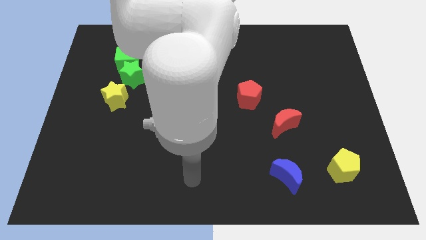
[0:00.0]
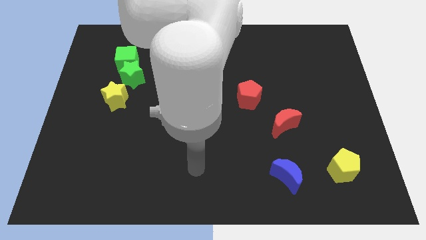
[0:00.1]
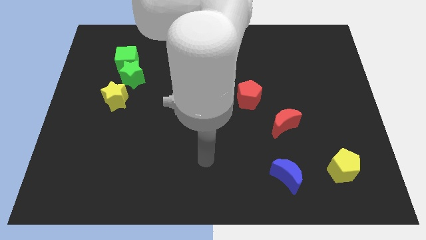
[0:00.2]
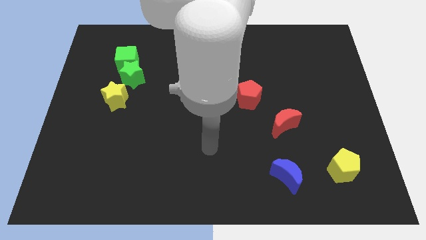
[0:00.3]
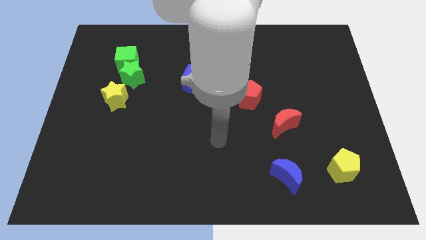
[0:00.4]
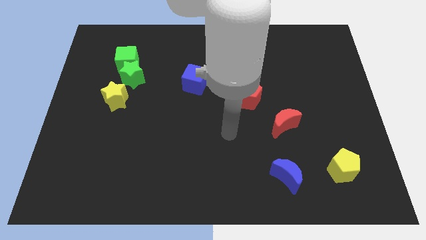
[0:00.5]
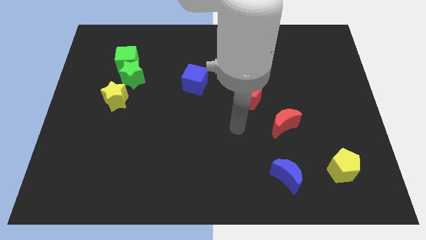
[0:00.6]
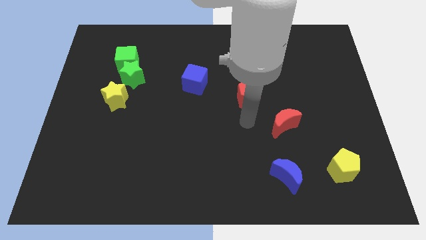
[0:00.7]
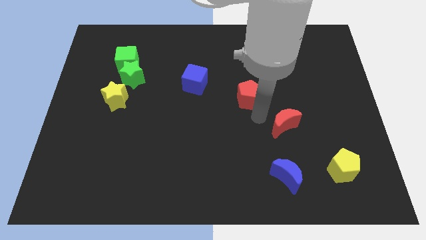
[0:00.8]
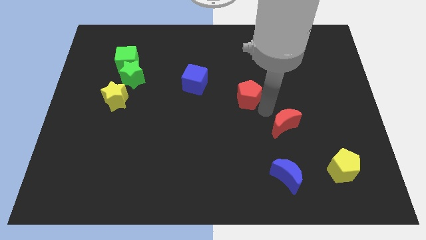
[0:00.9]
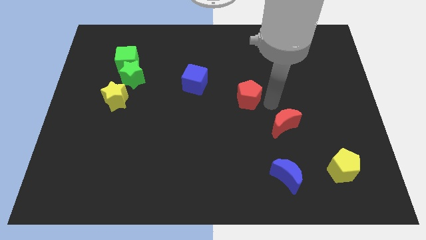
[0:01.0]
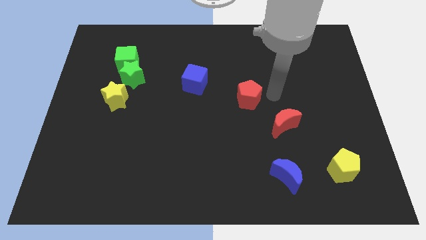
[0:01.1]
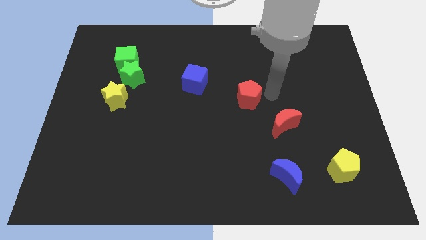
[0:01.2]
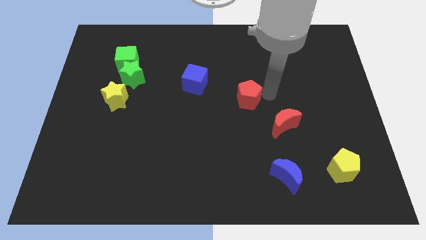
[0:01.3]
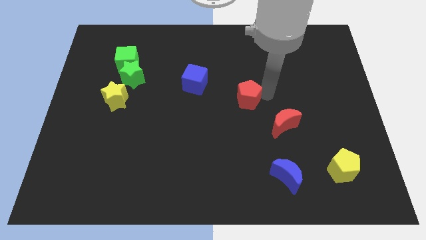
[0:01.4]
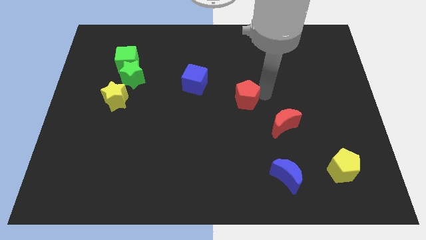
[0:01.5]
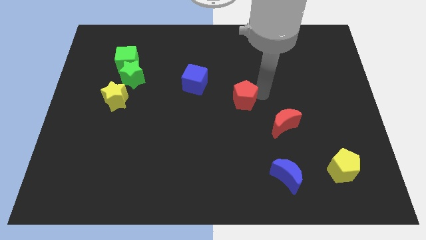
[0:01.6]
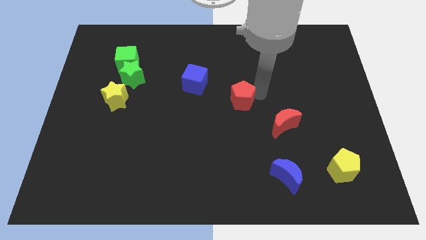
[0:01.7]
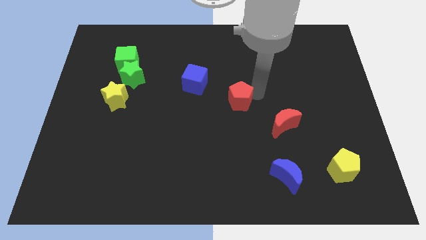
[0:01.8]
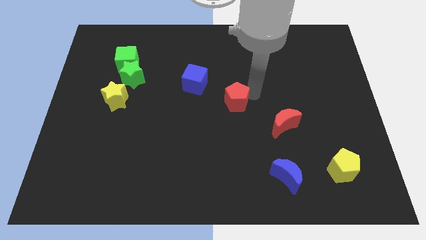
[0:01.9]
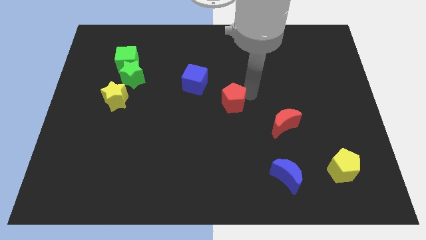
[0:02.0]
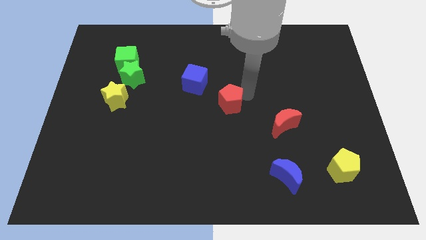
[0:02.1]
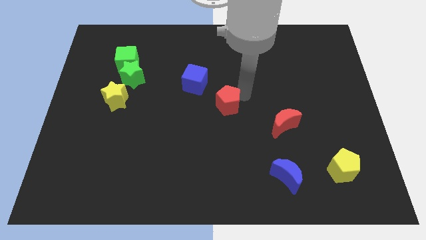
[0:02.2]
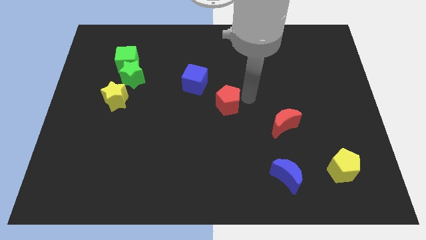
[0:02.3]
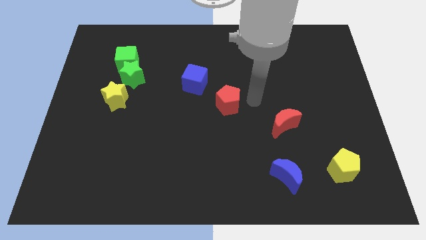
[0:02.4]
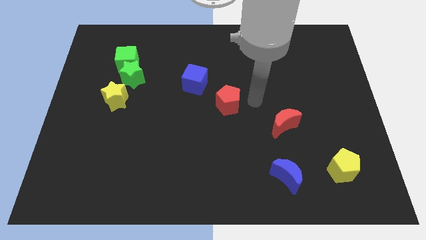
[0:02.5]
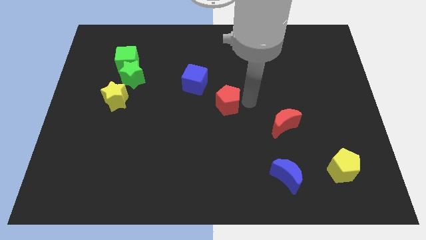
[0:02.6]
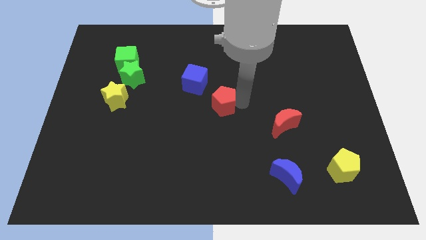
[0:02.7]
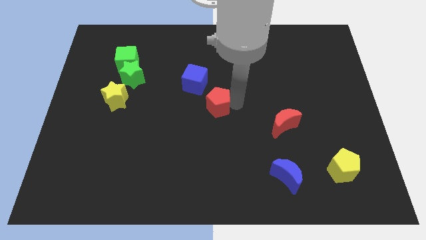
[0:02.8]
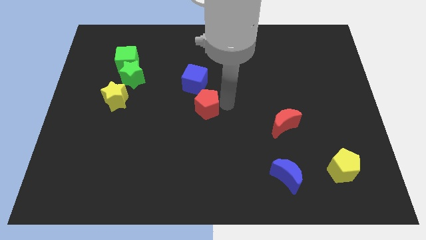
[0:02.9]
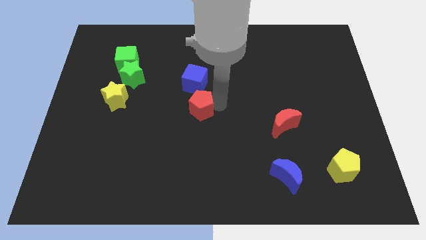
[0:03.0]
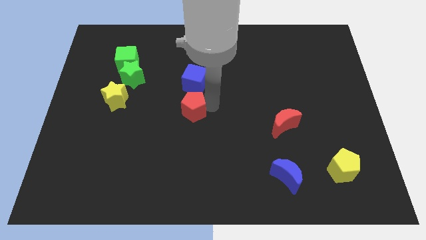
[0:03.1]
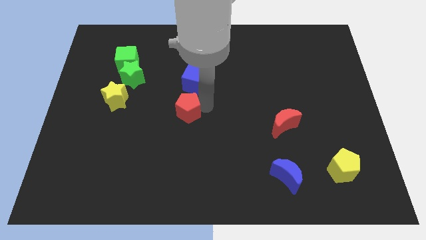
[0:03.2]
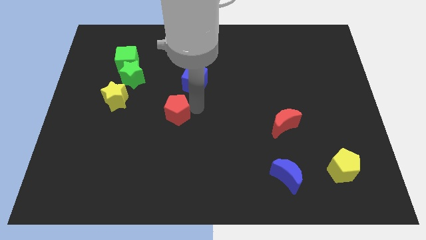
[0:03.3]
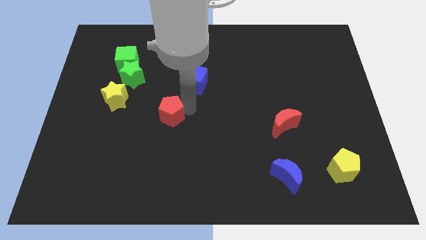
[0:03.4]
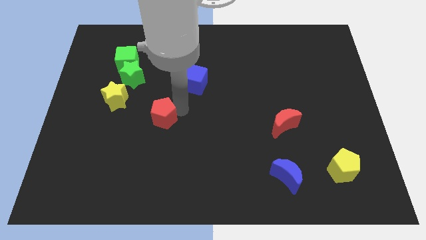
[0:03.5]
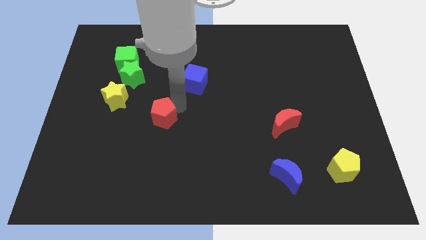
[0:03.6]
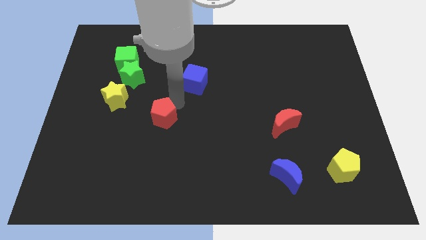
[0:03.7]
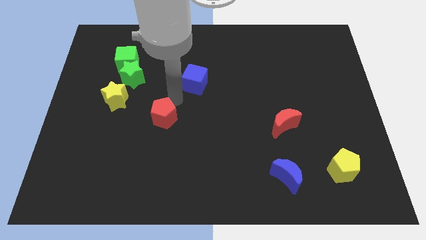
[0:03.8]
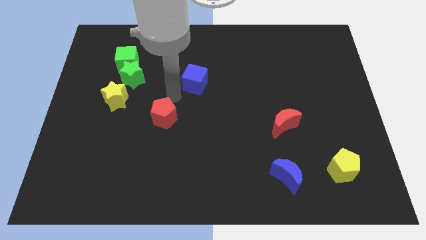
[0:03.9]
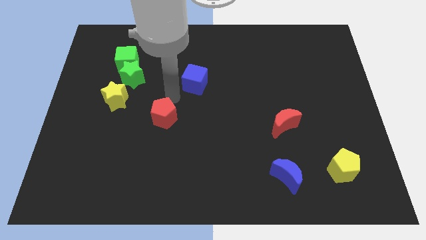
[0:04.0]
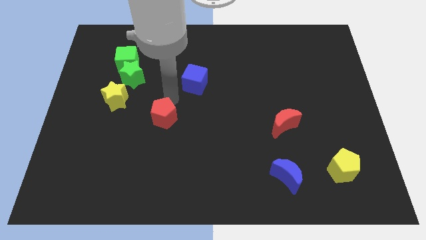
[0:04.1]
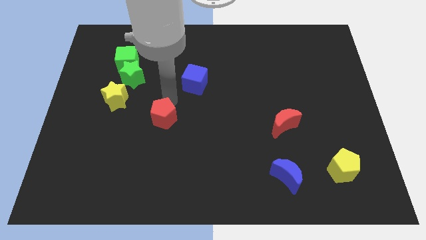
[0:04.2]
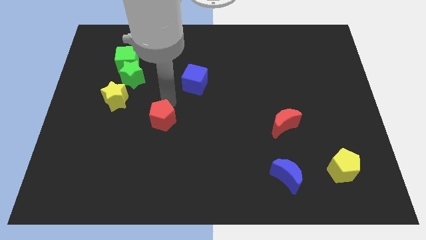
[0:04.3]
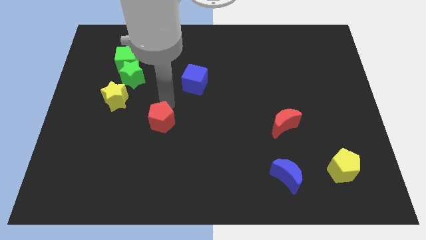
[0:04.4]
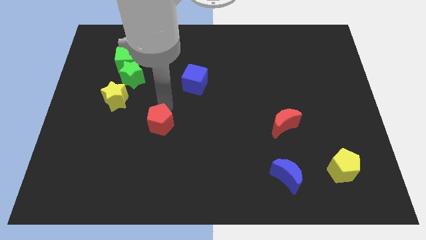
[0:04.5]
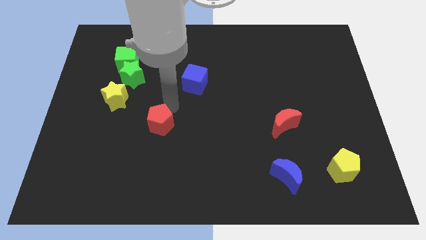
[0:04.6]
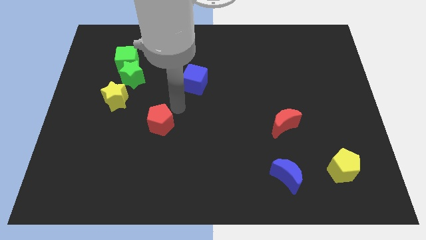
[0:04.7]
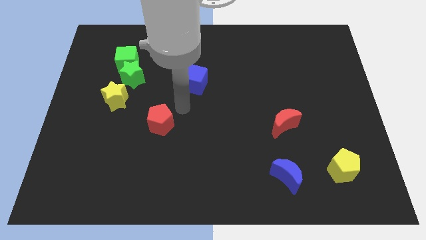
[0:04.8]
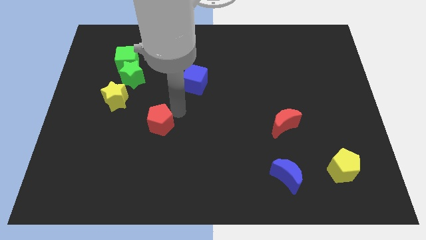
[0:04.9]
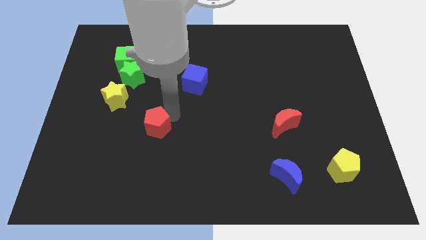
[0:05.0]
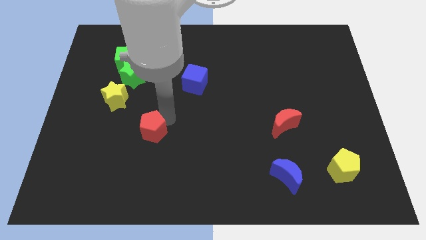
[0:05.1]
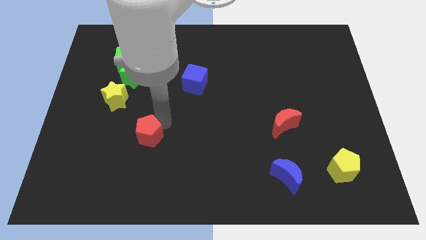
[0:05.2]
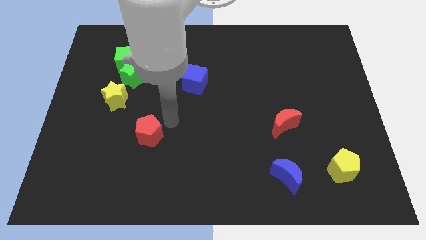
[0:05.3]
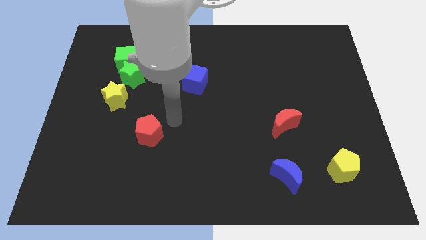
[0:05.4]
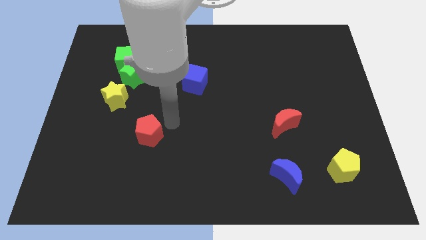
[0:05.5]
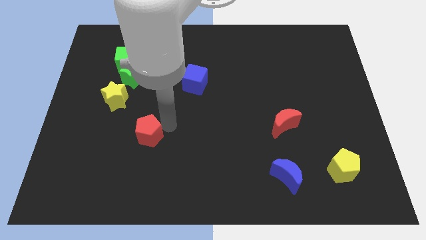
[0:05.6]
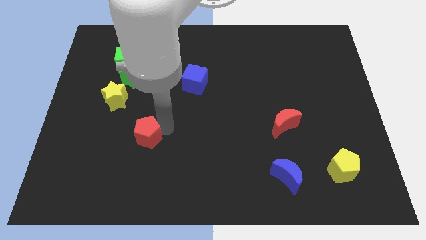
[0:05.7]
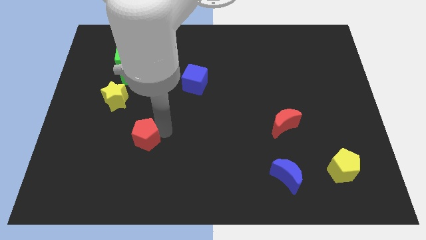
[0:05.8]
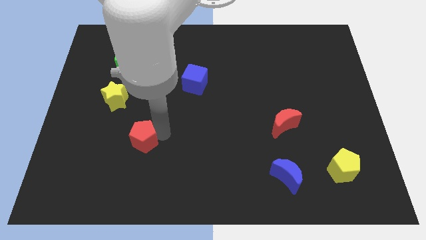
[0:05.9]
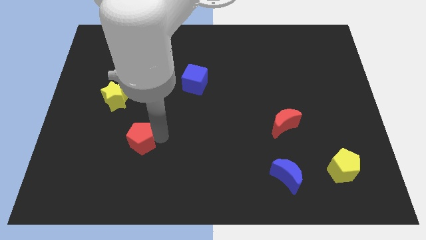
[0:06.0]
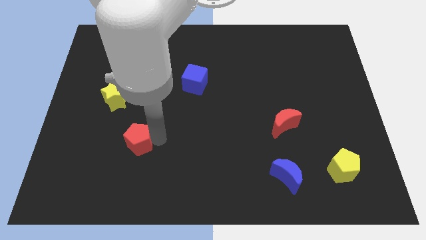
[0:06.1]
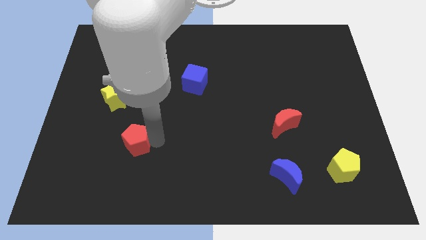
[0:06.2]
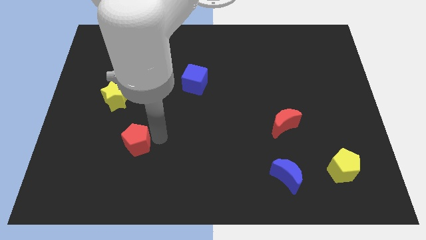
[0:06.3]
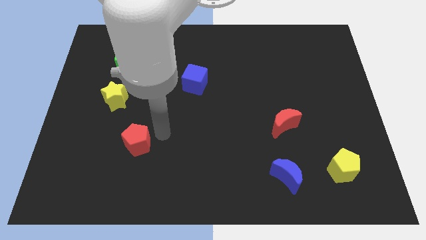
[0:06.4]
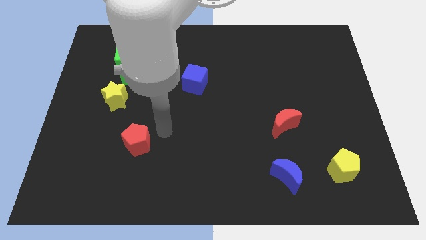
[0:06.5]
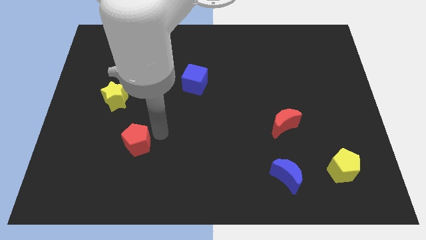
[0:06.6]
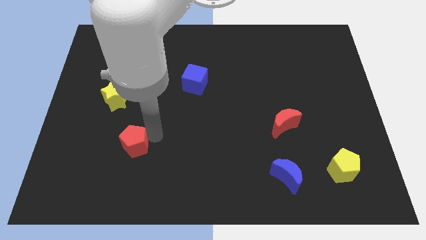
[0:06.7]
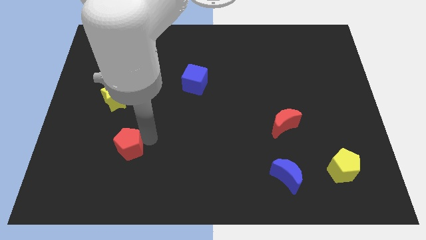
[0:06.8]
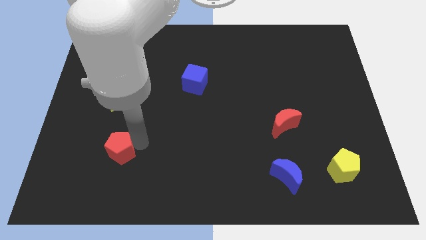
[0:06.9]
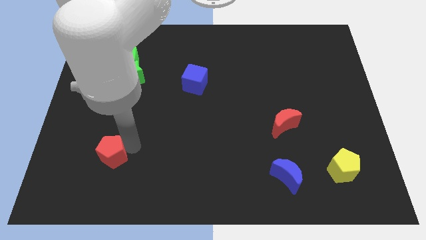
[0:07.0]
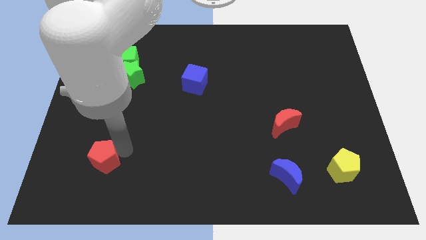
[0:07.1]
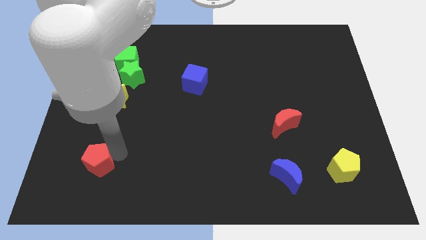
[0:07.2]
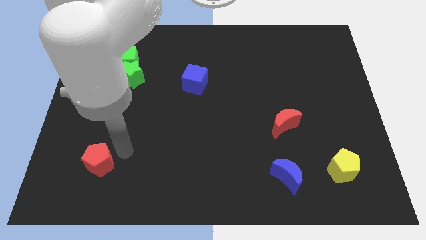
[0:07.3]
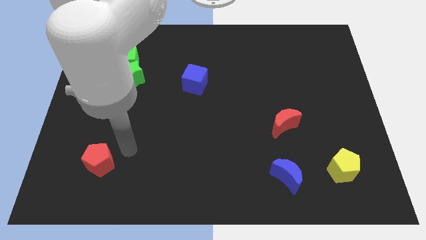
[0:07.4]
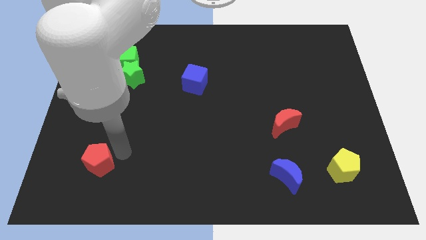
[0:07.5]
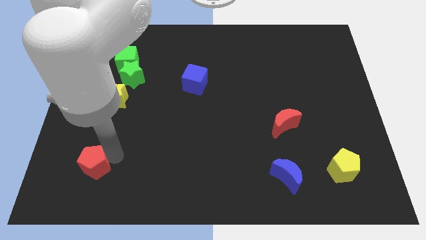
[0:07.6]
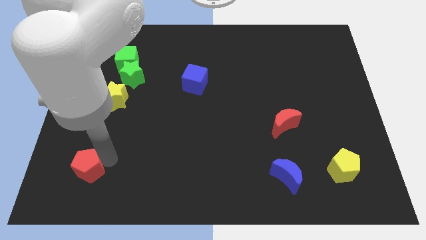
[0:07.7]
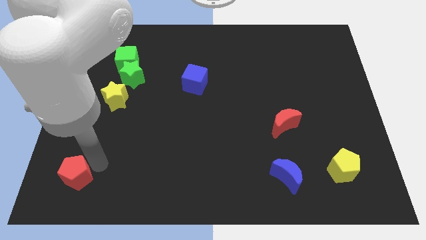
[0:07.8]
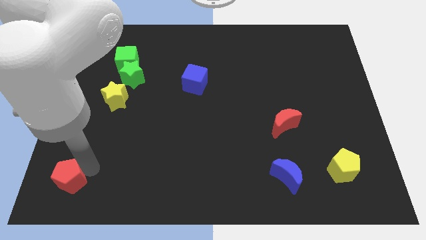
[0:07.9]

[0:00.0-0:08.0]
push the red pentagon to the bottom left corner
